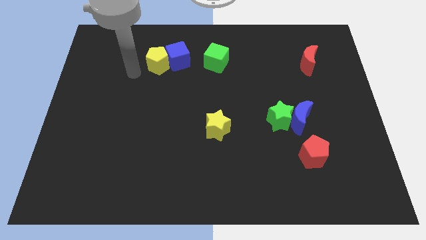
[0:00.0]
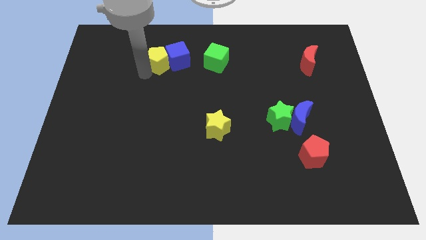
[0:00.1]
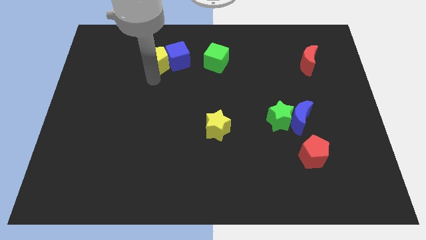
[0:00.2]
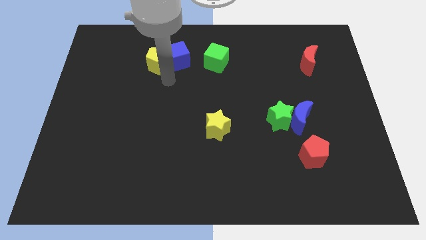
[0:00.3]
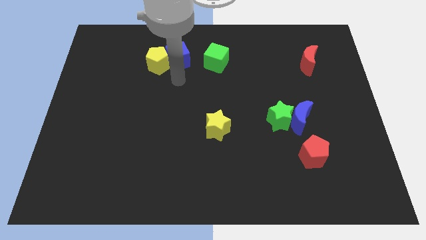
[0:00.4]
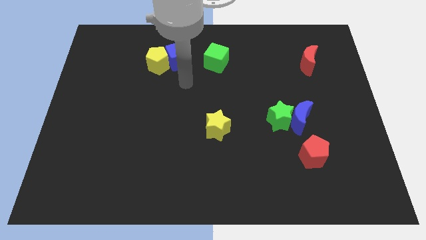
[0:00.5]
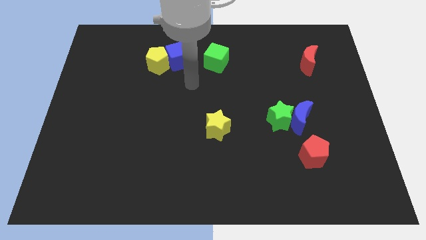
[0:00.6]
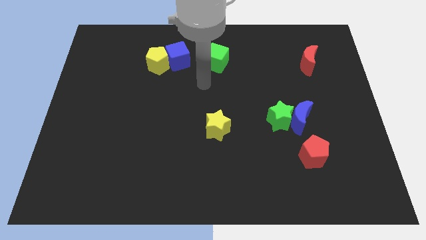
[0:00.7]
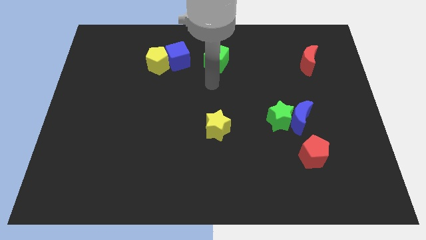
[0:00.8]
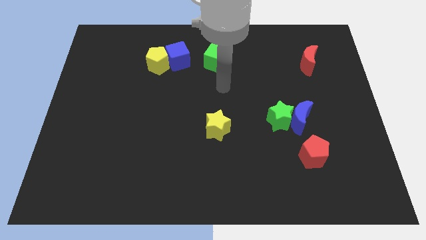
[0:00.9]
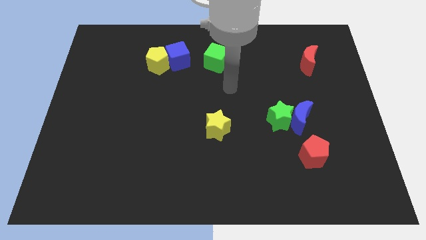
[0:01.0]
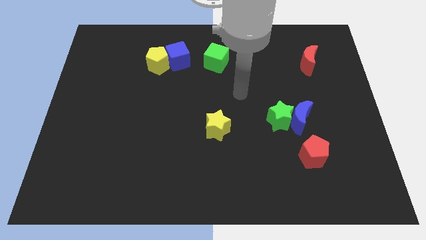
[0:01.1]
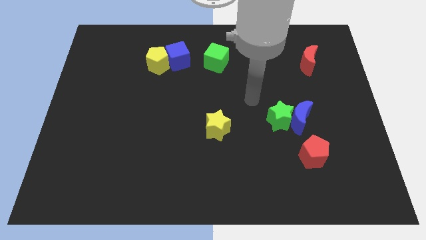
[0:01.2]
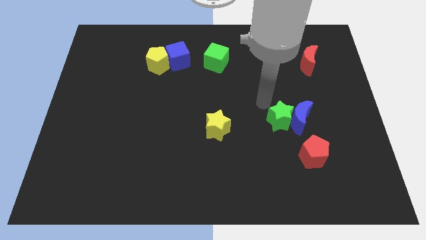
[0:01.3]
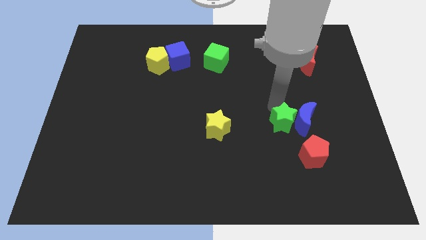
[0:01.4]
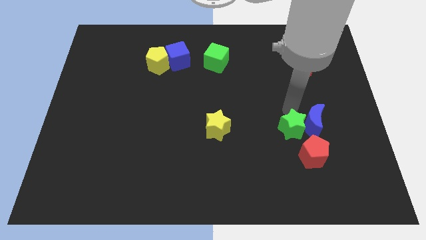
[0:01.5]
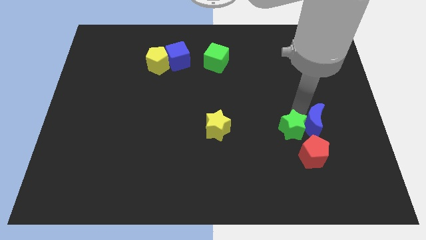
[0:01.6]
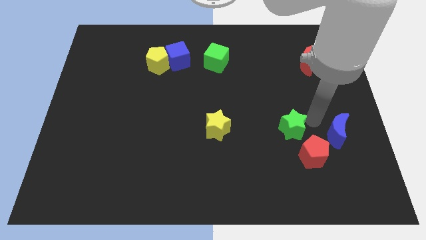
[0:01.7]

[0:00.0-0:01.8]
pull the green star apart from the blue moon

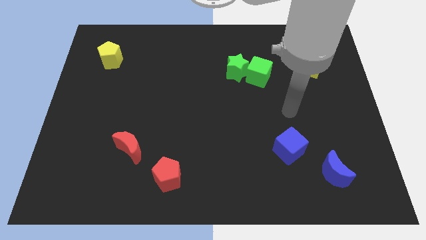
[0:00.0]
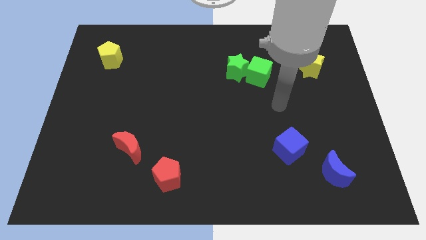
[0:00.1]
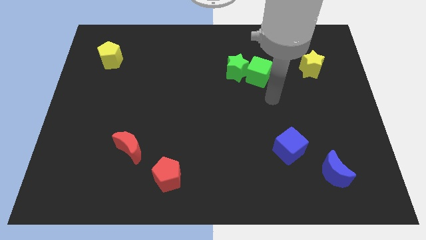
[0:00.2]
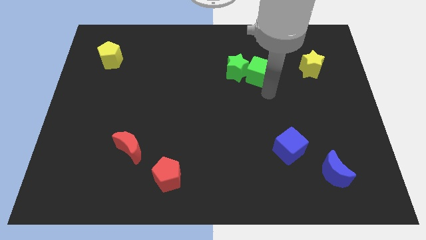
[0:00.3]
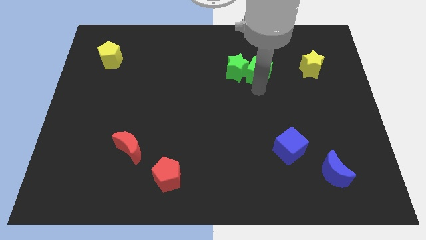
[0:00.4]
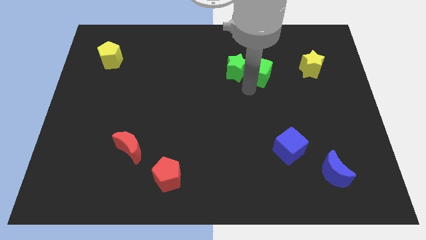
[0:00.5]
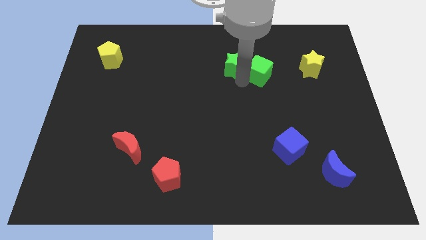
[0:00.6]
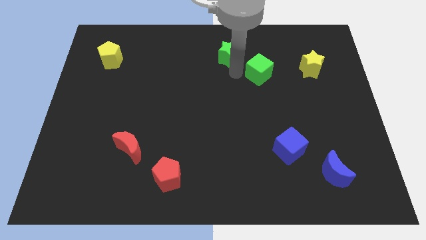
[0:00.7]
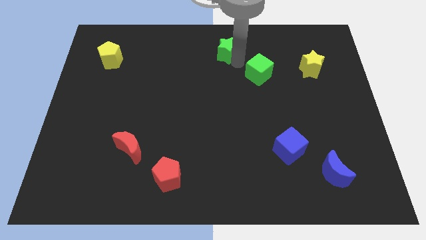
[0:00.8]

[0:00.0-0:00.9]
separate the green cube from the green star

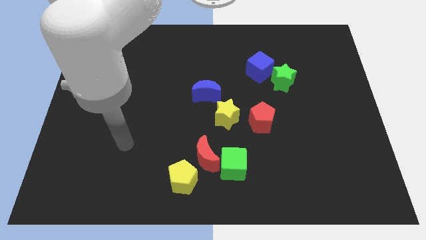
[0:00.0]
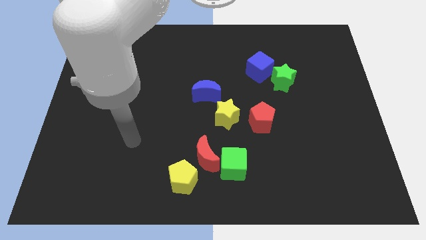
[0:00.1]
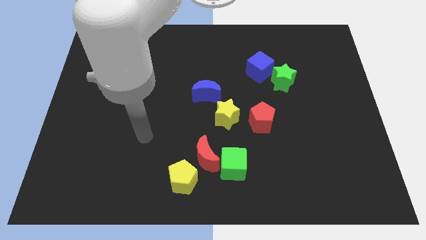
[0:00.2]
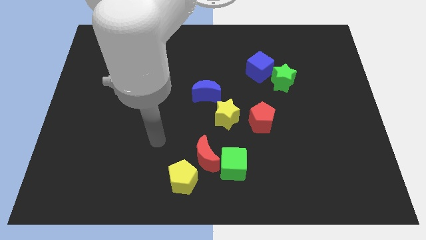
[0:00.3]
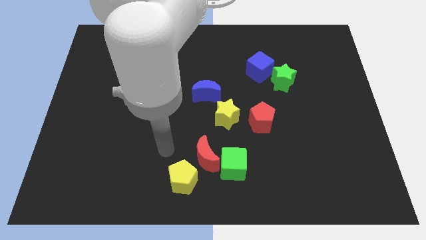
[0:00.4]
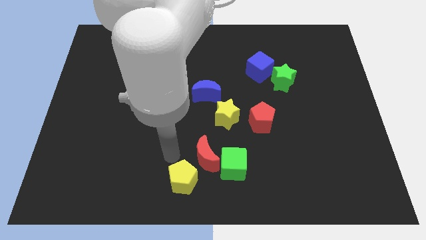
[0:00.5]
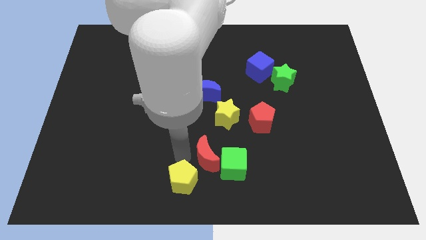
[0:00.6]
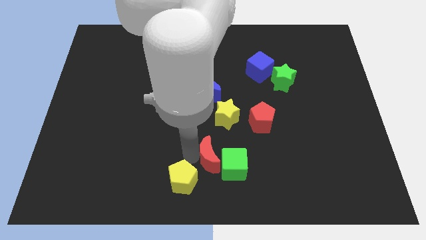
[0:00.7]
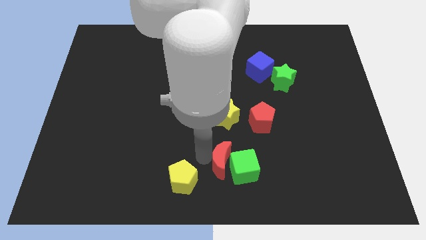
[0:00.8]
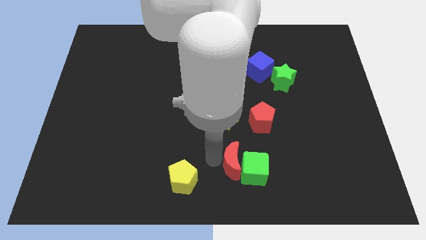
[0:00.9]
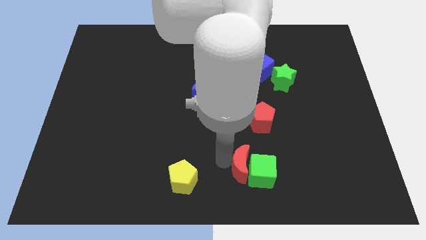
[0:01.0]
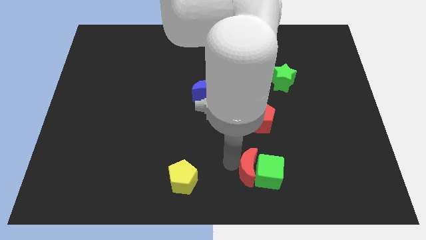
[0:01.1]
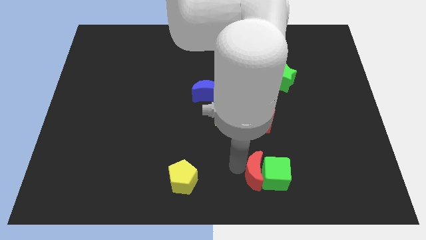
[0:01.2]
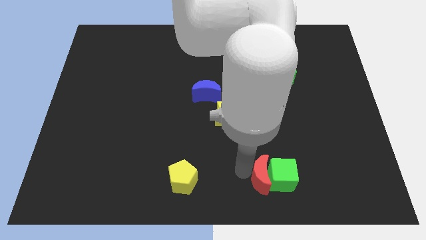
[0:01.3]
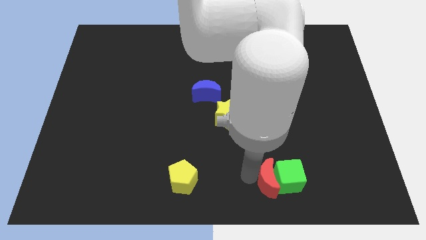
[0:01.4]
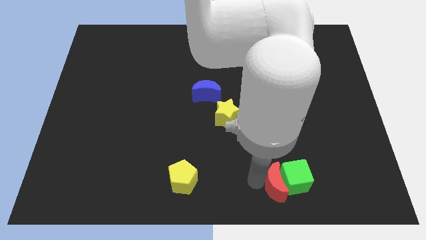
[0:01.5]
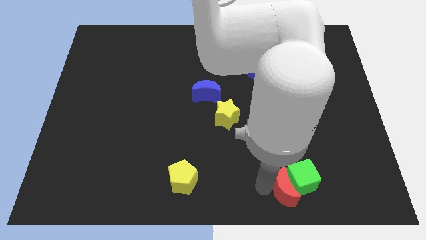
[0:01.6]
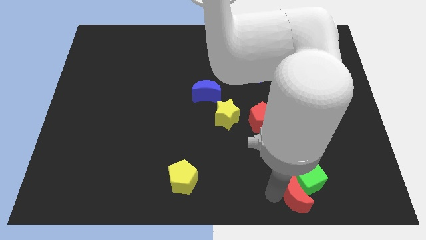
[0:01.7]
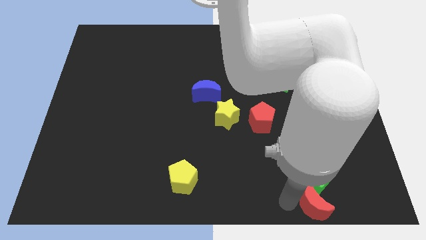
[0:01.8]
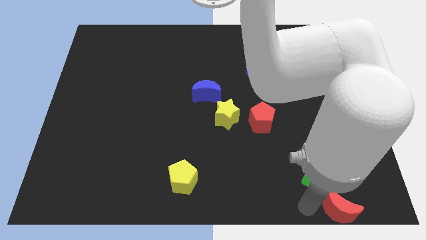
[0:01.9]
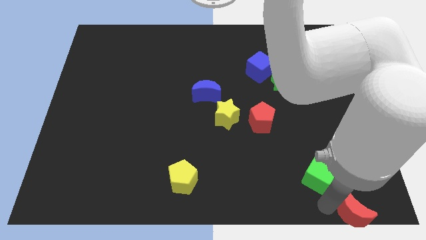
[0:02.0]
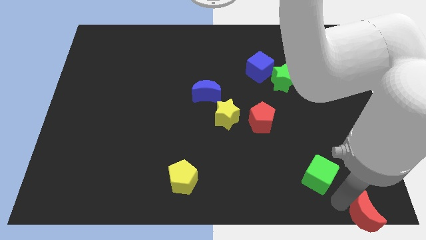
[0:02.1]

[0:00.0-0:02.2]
move the green cube away from the red moon

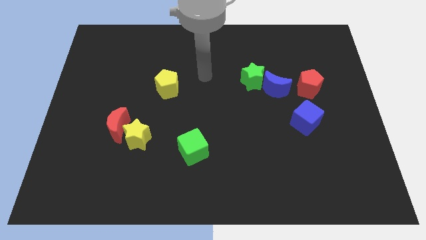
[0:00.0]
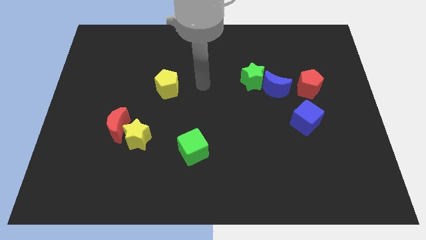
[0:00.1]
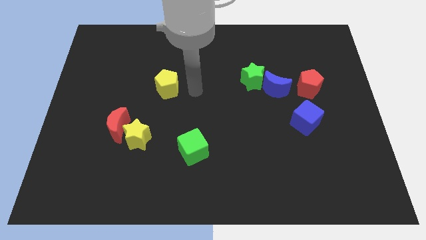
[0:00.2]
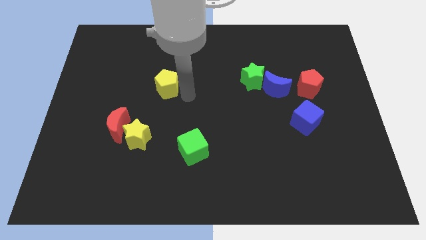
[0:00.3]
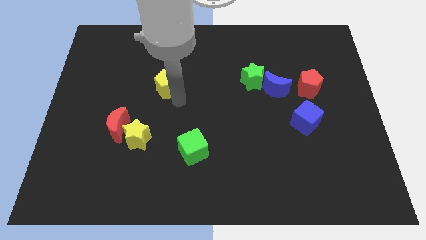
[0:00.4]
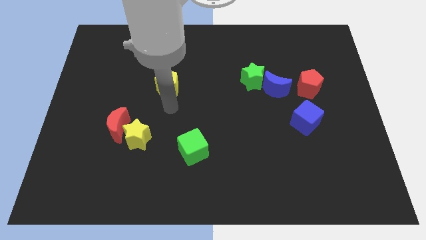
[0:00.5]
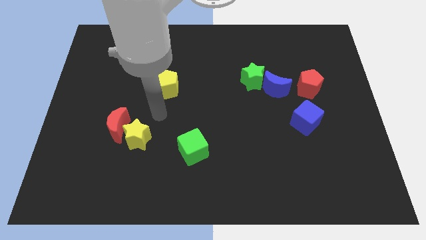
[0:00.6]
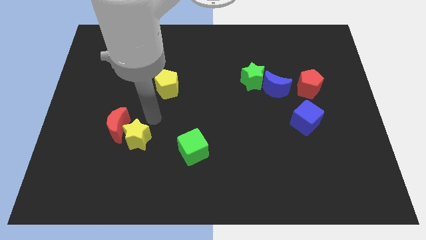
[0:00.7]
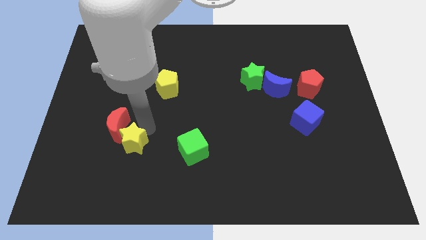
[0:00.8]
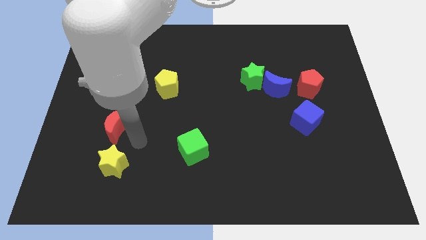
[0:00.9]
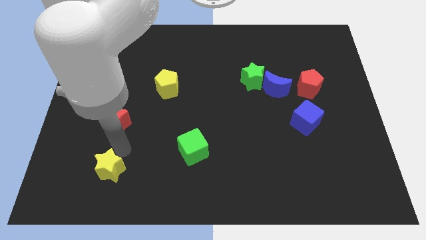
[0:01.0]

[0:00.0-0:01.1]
pull the red moon apart from the yellow star

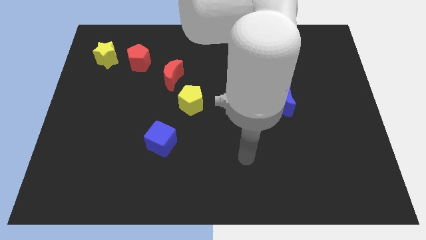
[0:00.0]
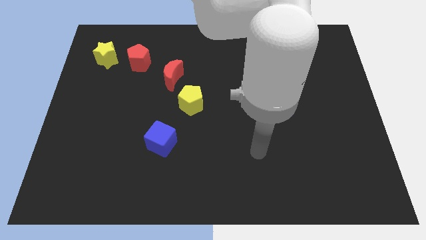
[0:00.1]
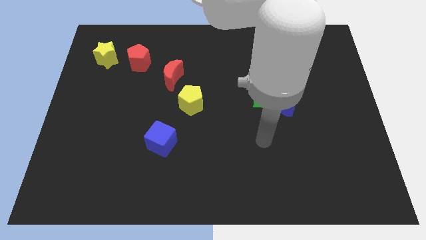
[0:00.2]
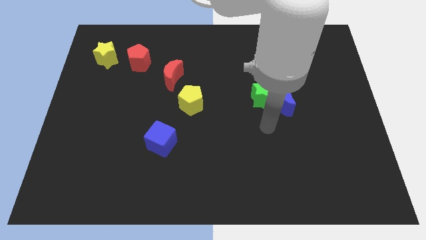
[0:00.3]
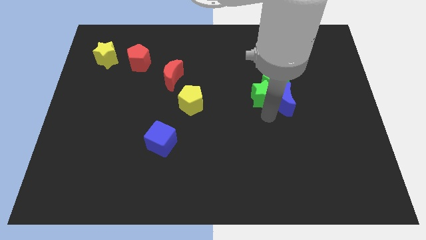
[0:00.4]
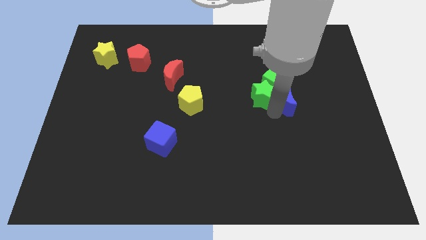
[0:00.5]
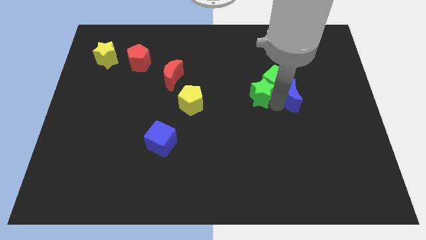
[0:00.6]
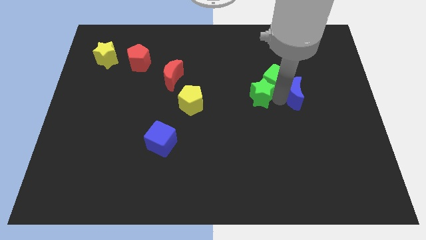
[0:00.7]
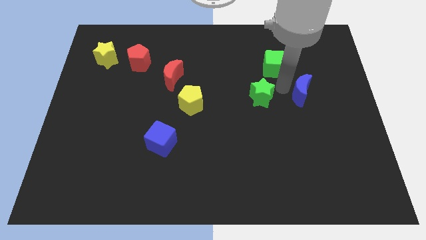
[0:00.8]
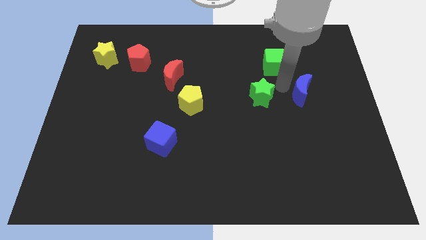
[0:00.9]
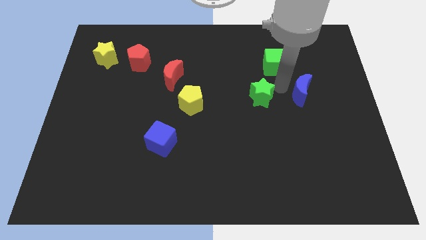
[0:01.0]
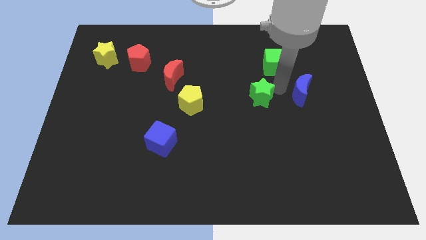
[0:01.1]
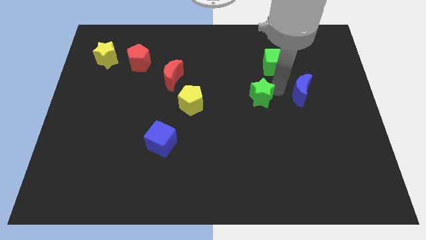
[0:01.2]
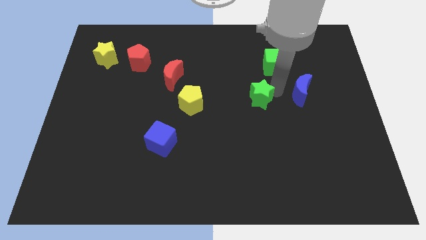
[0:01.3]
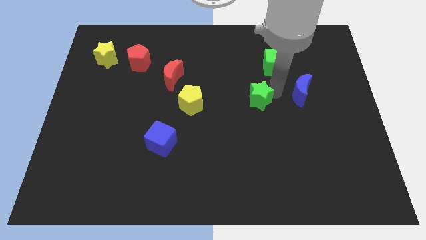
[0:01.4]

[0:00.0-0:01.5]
pull the green star apart from the blue moon and green cube

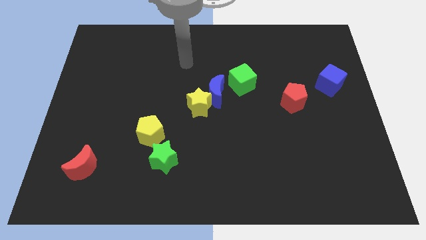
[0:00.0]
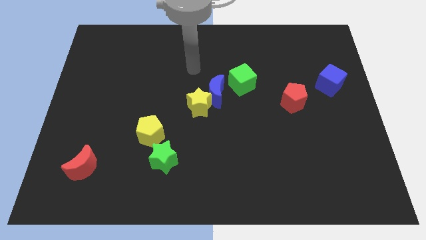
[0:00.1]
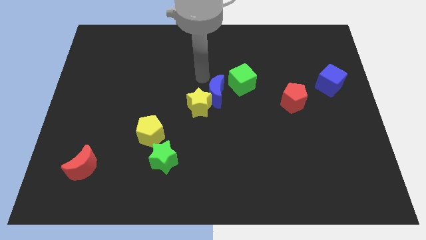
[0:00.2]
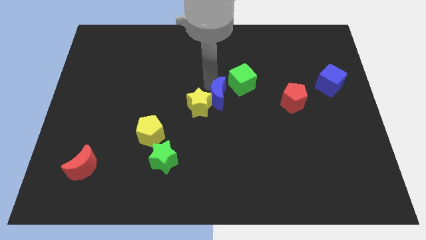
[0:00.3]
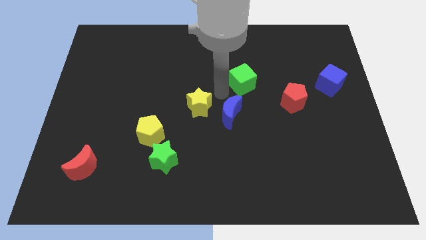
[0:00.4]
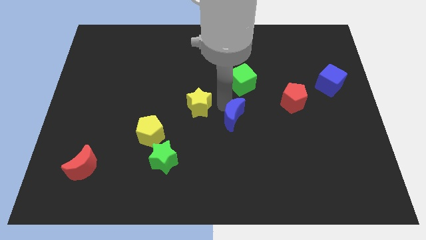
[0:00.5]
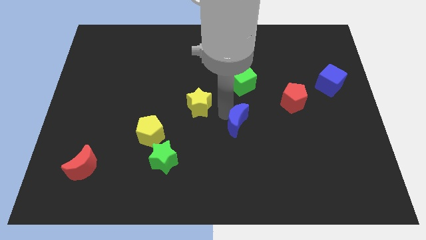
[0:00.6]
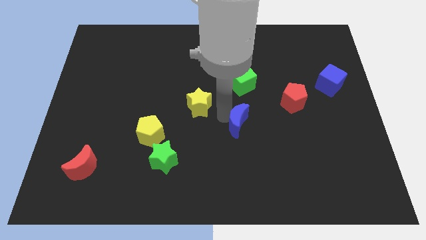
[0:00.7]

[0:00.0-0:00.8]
move the yellow star away from the blue moon

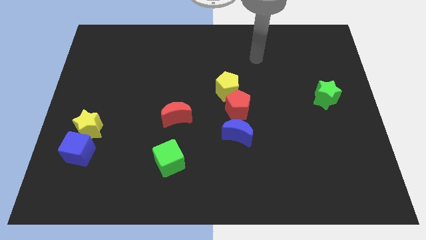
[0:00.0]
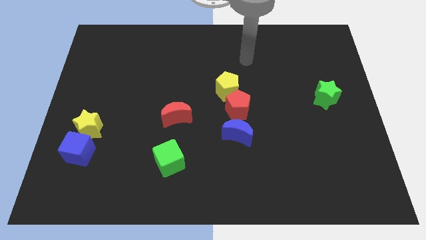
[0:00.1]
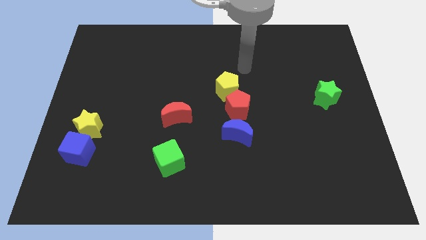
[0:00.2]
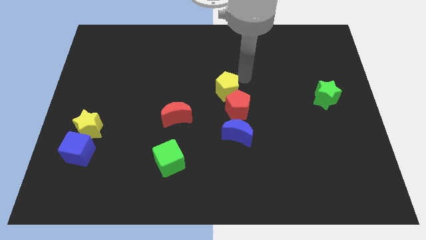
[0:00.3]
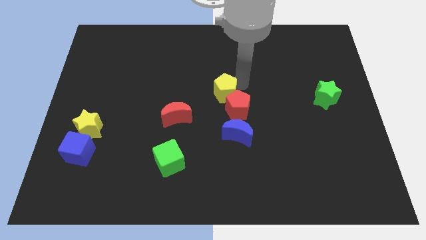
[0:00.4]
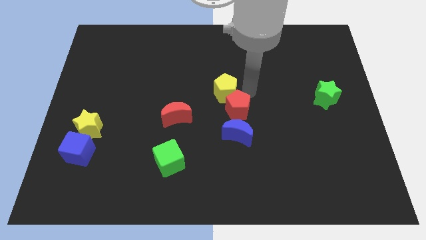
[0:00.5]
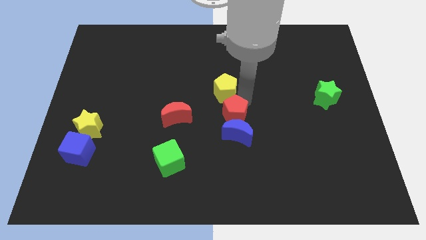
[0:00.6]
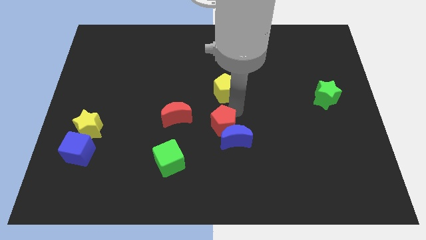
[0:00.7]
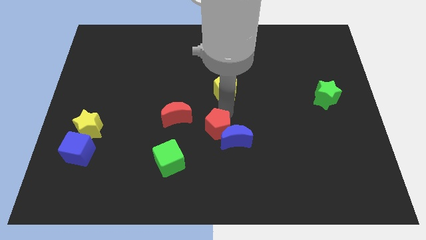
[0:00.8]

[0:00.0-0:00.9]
pull the yellow pentagon apart from the red pentagon
